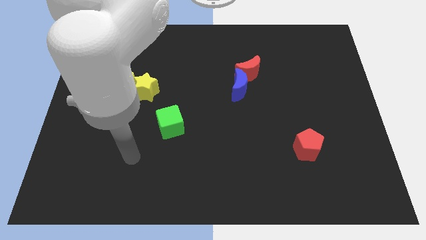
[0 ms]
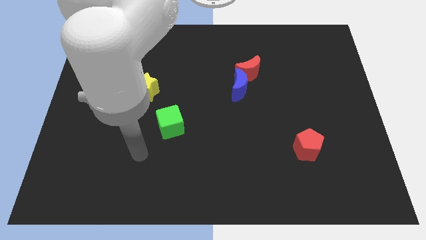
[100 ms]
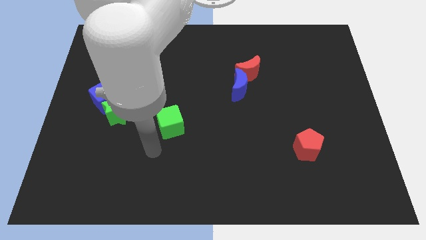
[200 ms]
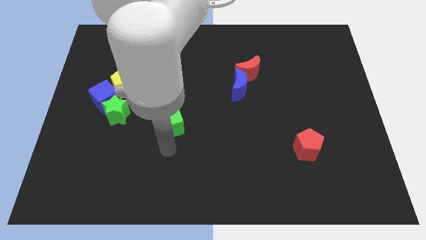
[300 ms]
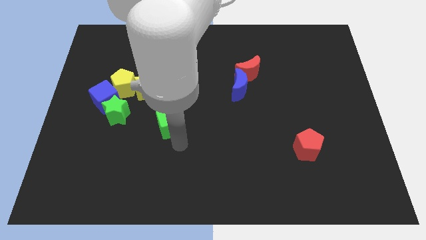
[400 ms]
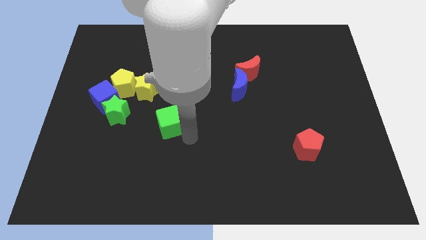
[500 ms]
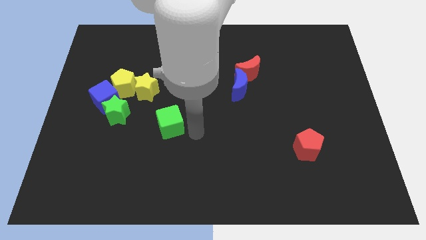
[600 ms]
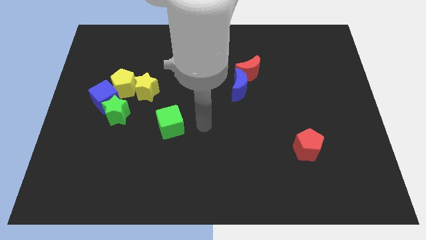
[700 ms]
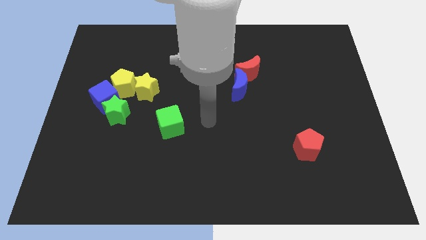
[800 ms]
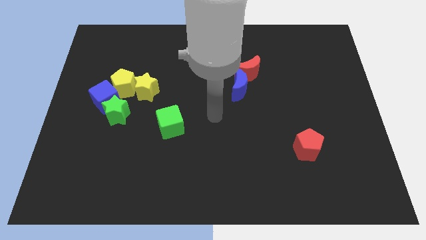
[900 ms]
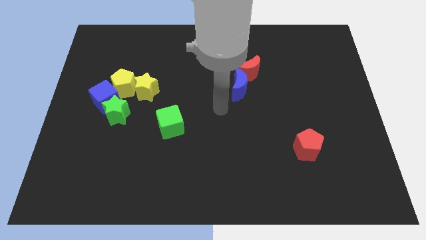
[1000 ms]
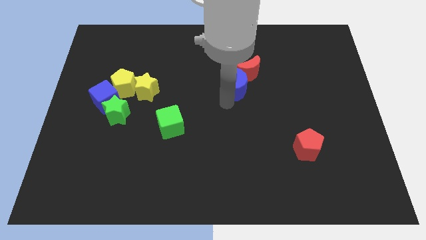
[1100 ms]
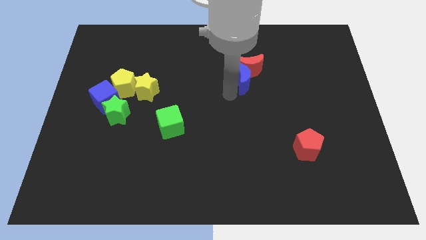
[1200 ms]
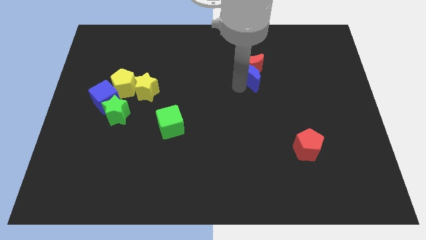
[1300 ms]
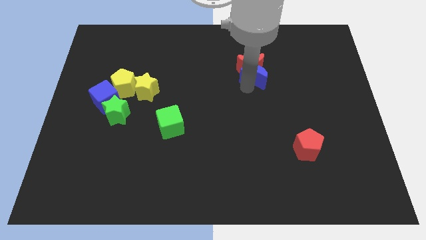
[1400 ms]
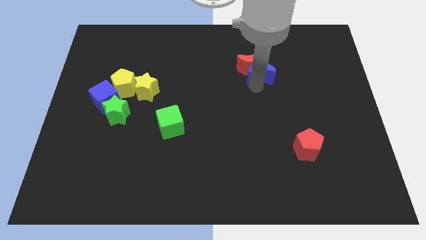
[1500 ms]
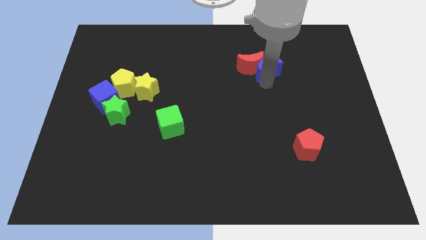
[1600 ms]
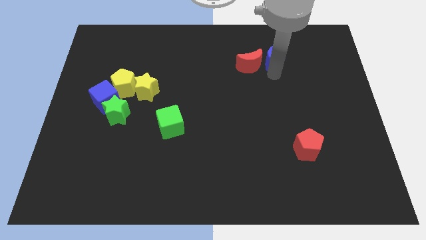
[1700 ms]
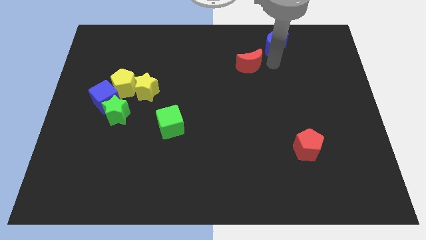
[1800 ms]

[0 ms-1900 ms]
separate the red moon from the blue moon

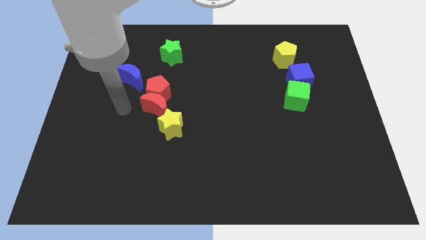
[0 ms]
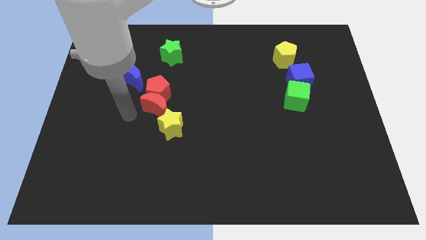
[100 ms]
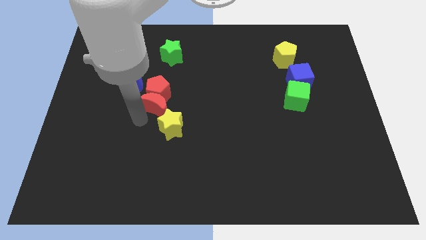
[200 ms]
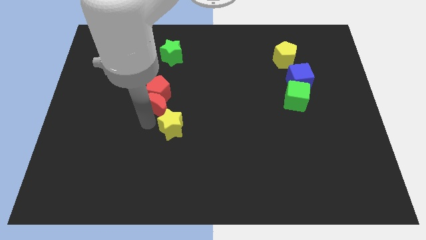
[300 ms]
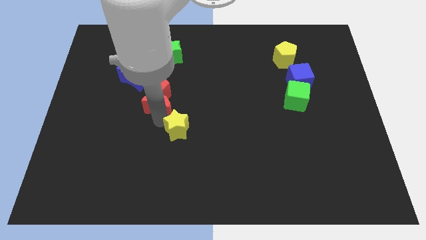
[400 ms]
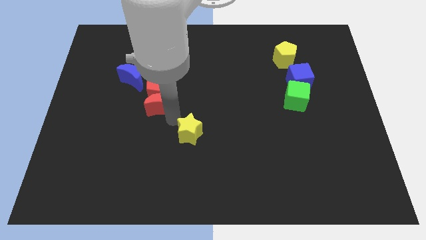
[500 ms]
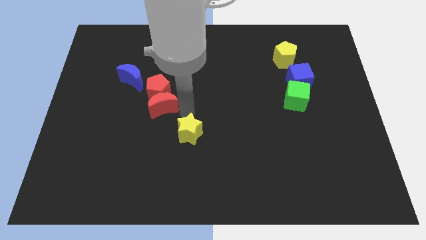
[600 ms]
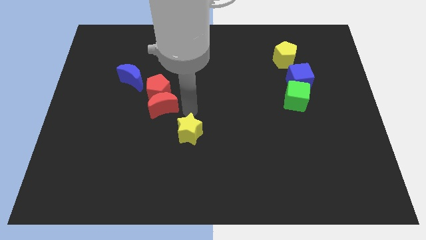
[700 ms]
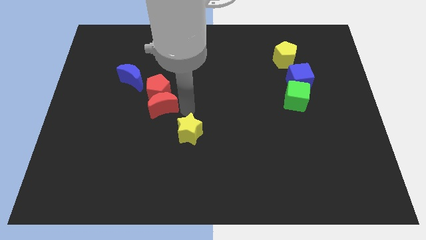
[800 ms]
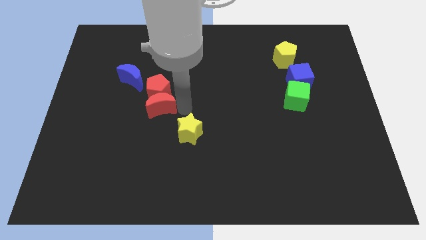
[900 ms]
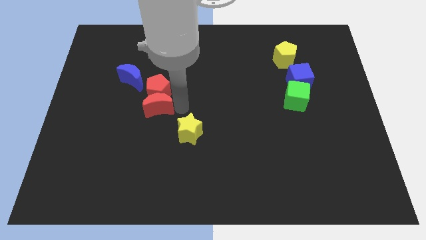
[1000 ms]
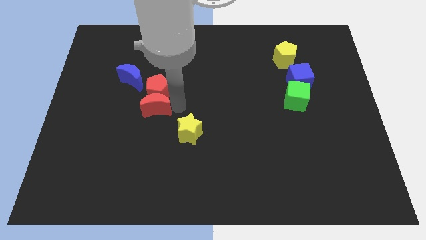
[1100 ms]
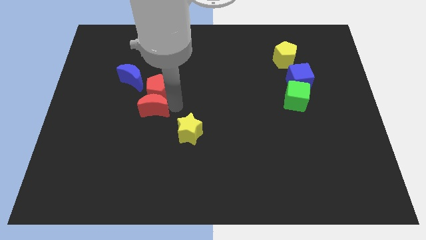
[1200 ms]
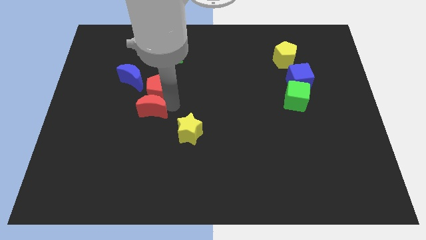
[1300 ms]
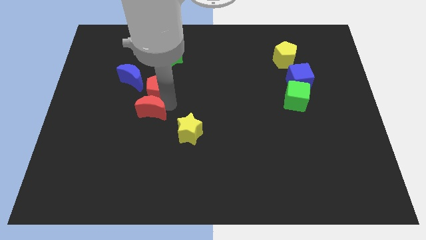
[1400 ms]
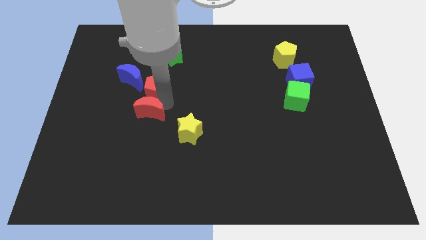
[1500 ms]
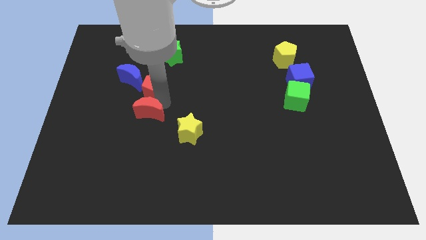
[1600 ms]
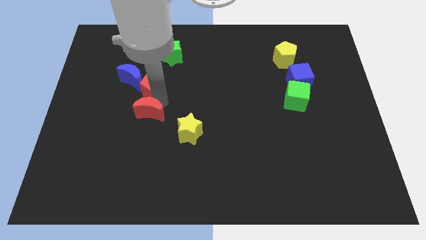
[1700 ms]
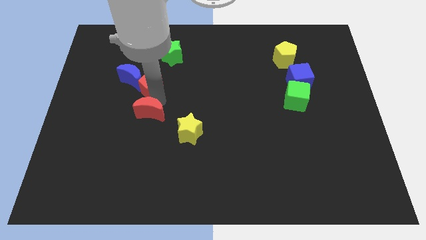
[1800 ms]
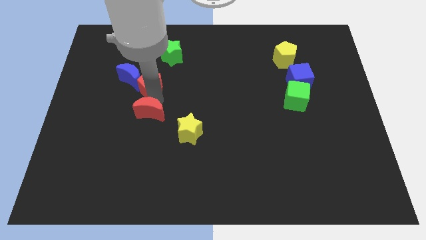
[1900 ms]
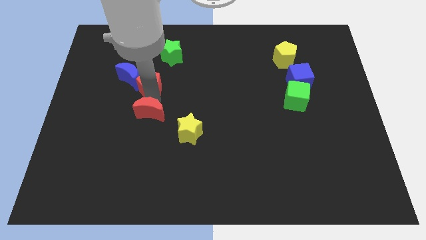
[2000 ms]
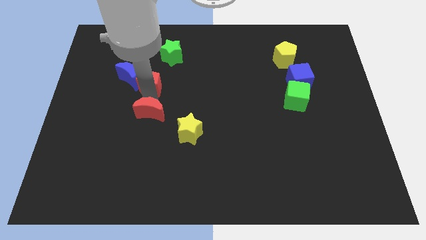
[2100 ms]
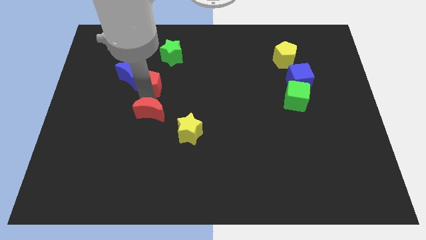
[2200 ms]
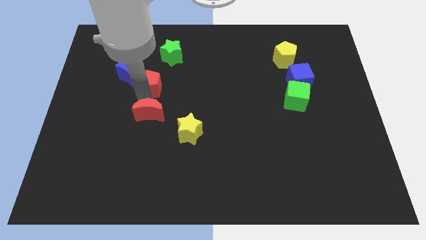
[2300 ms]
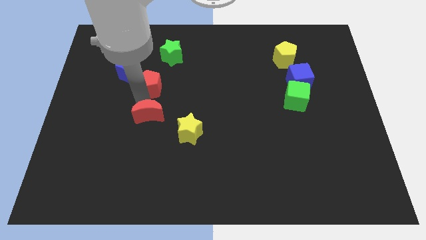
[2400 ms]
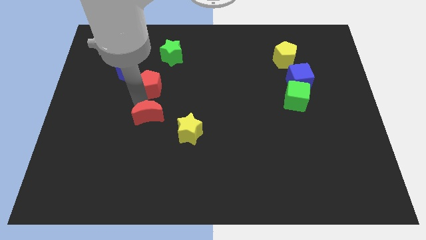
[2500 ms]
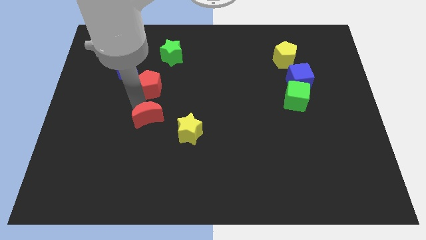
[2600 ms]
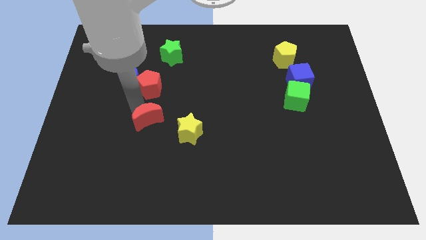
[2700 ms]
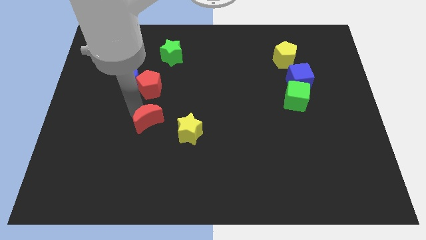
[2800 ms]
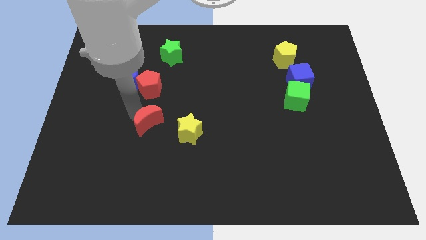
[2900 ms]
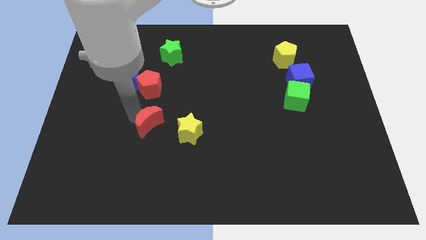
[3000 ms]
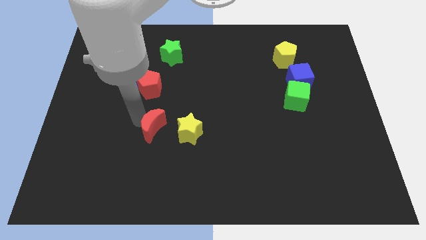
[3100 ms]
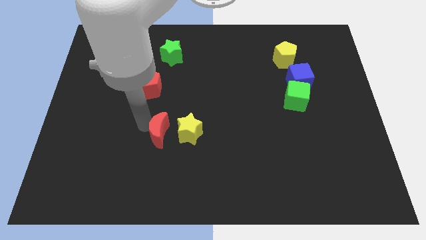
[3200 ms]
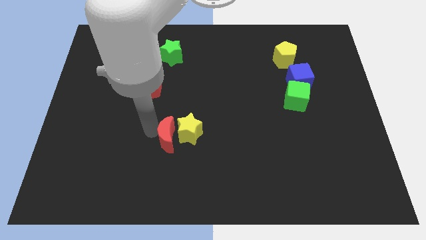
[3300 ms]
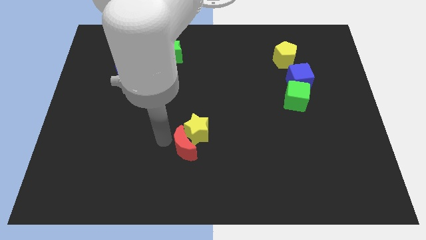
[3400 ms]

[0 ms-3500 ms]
pull the red moon apart from the red pentagon and yellow star

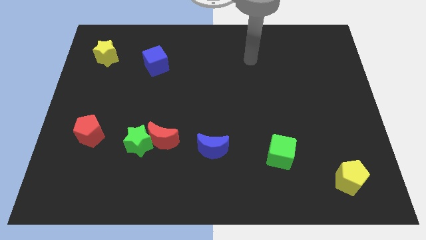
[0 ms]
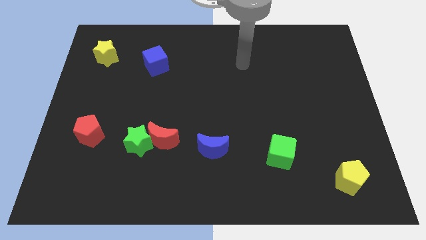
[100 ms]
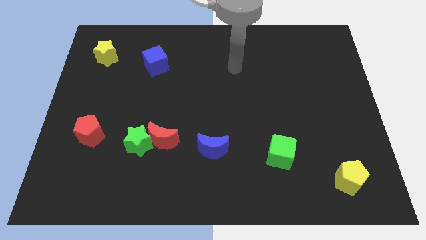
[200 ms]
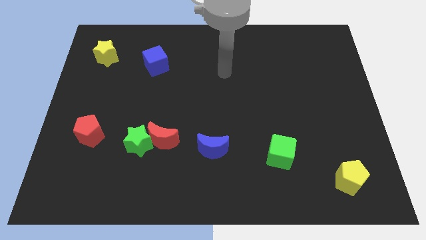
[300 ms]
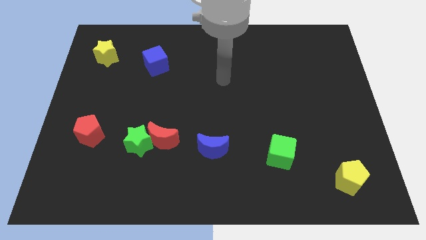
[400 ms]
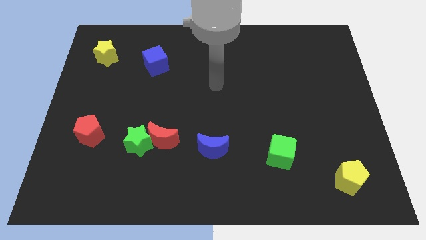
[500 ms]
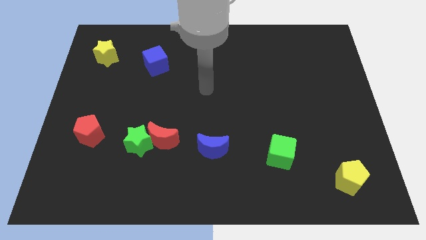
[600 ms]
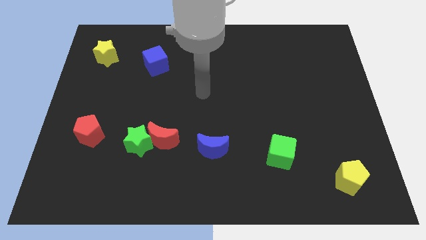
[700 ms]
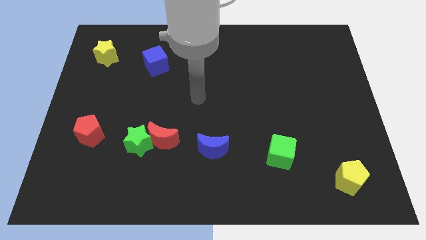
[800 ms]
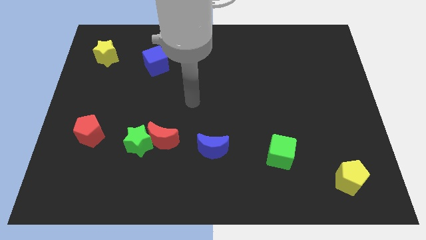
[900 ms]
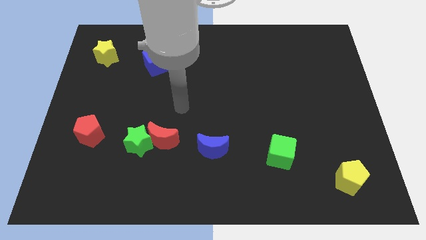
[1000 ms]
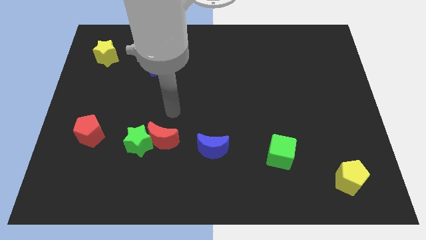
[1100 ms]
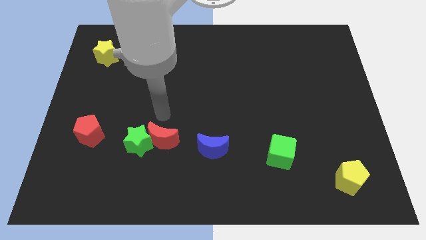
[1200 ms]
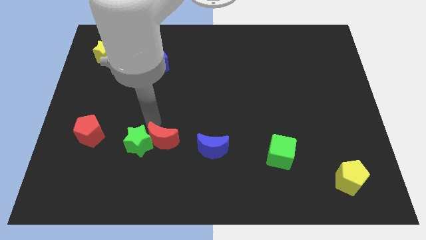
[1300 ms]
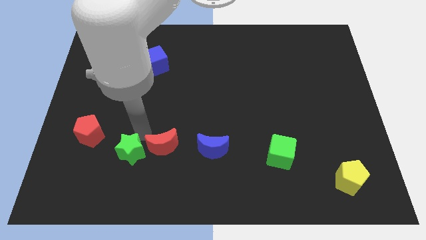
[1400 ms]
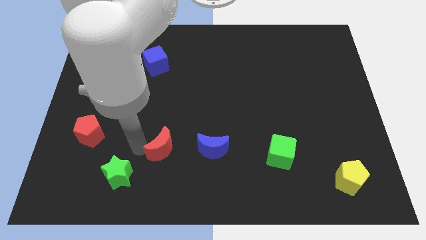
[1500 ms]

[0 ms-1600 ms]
move the red moon away from the green star

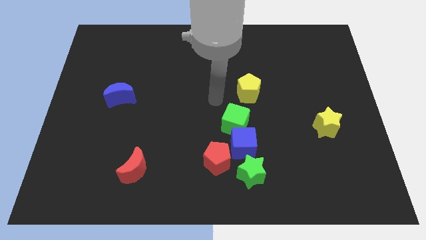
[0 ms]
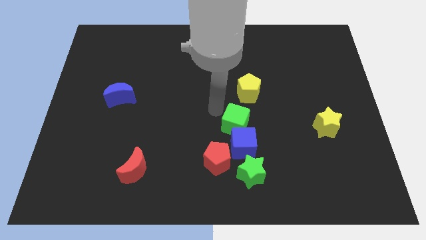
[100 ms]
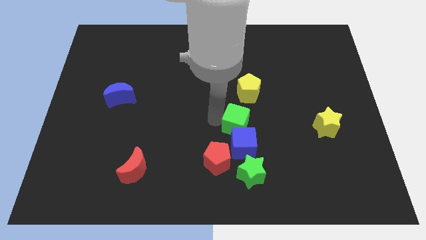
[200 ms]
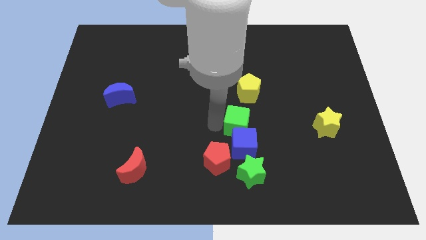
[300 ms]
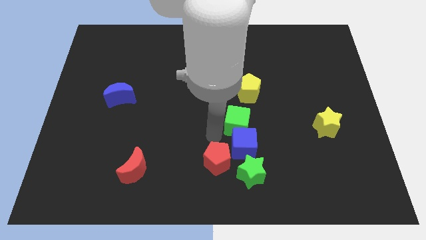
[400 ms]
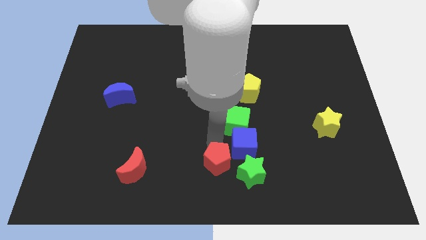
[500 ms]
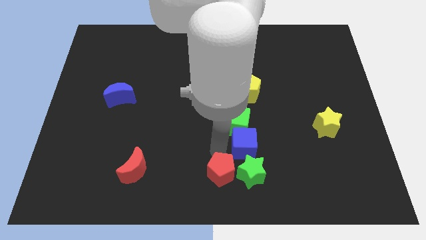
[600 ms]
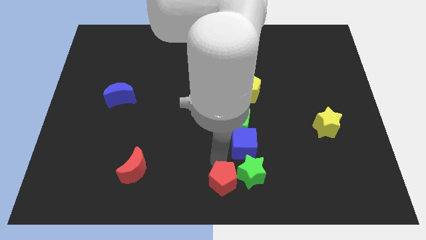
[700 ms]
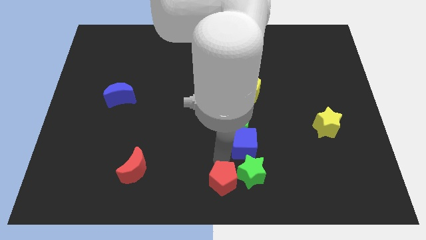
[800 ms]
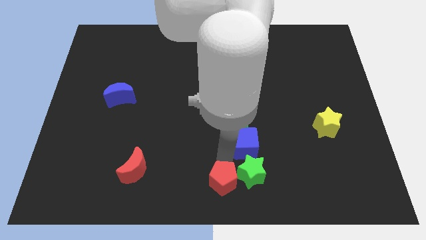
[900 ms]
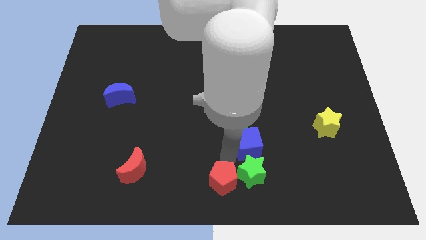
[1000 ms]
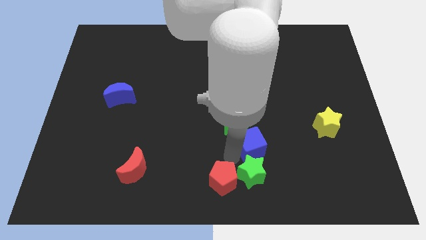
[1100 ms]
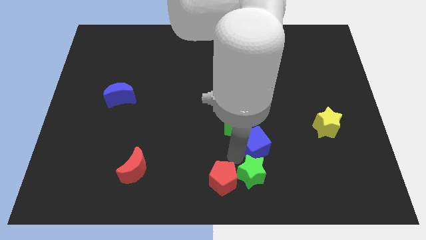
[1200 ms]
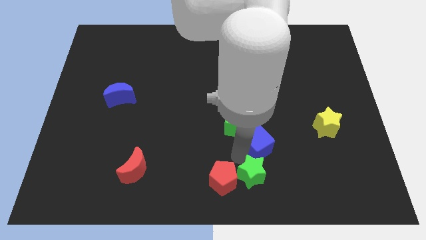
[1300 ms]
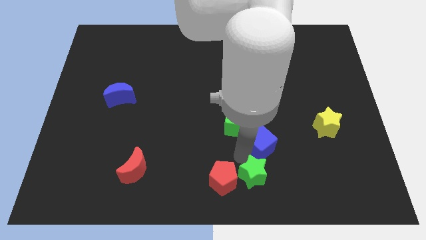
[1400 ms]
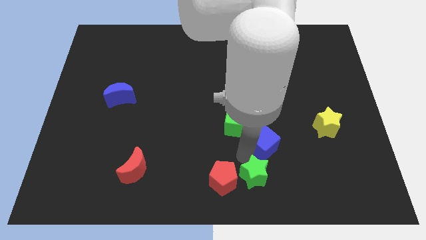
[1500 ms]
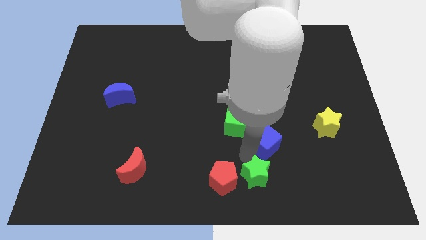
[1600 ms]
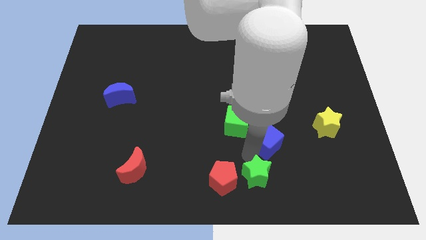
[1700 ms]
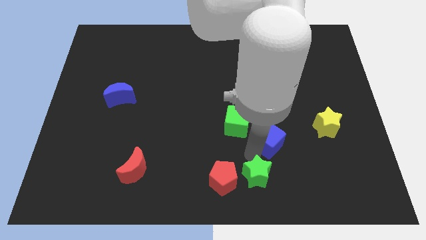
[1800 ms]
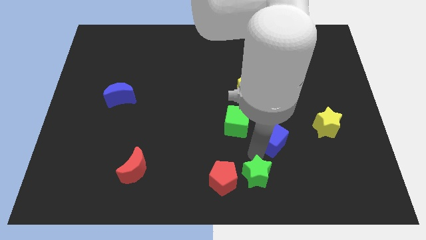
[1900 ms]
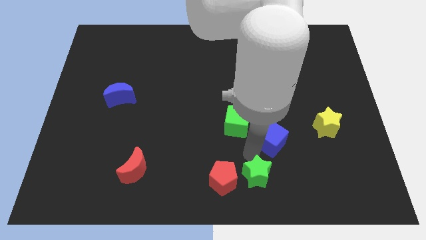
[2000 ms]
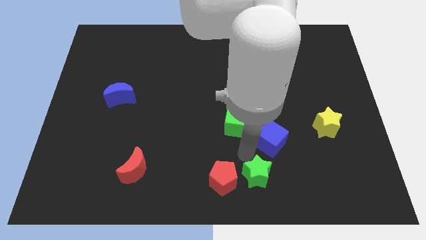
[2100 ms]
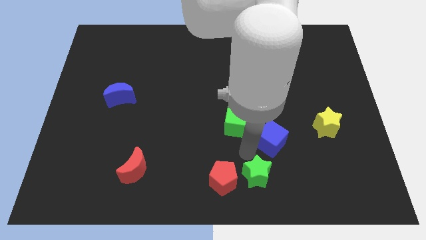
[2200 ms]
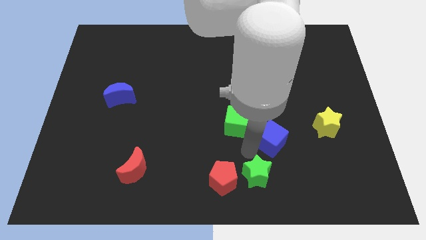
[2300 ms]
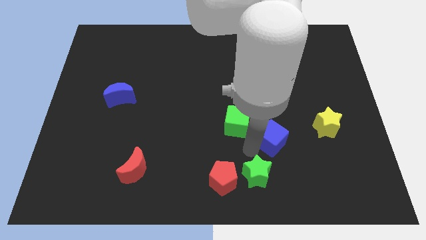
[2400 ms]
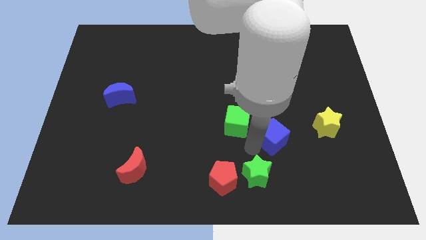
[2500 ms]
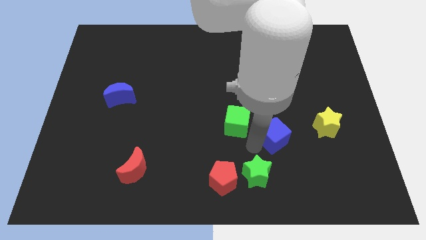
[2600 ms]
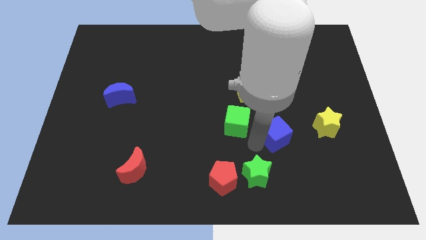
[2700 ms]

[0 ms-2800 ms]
pull the blue cube apart from the green cube, green star, and red pentagon
